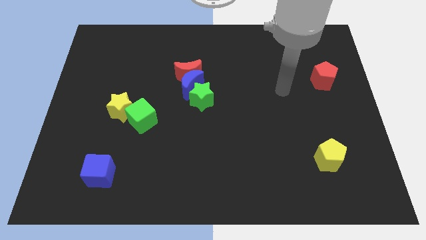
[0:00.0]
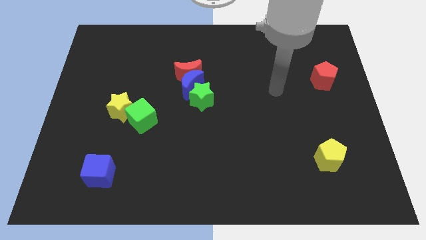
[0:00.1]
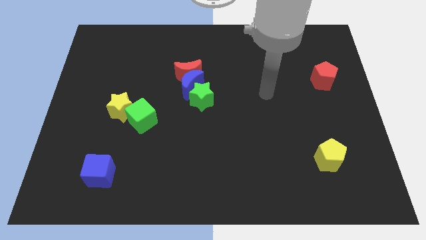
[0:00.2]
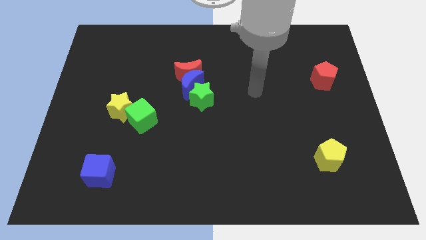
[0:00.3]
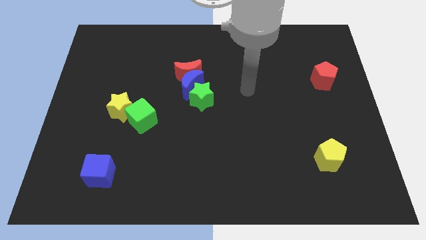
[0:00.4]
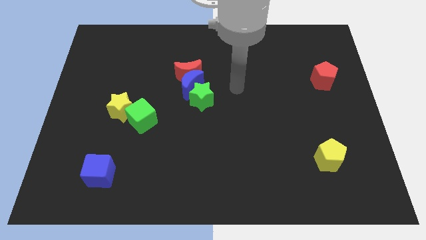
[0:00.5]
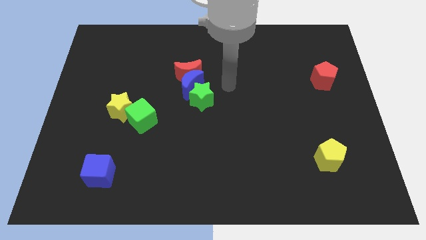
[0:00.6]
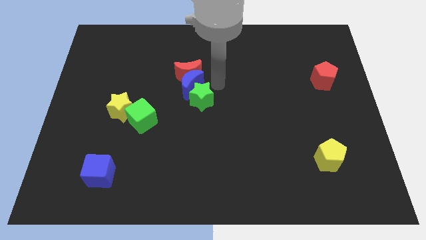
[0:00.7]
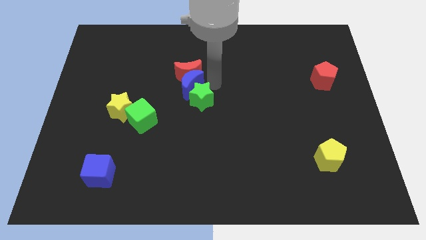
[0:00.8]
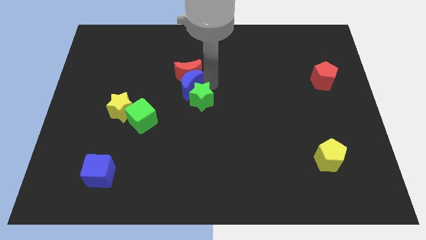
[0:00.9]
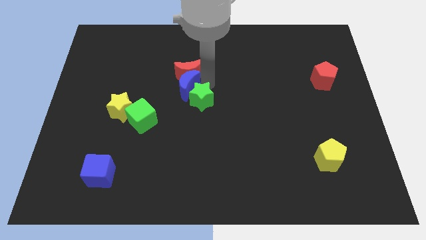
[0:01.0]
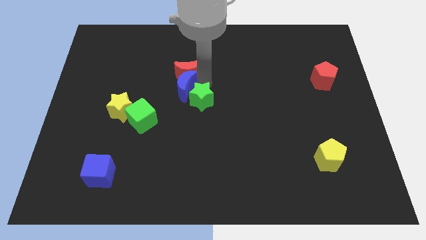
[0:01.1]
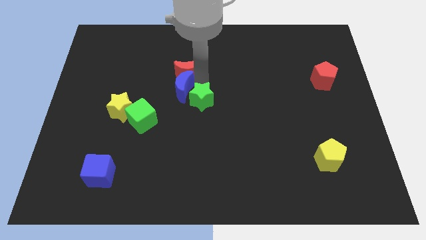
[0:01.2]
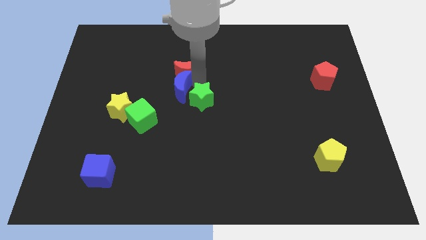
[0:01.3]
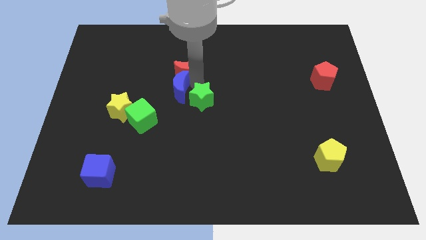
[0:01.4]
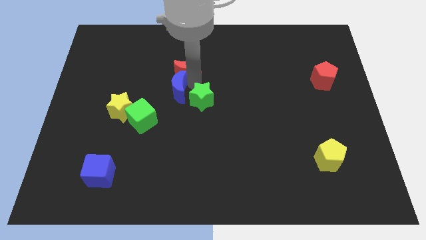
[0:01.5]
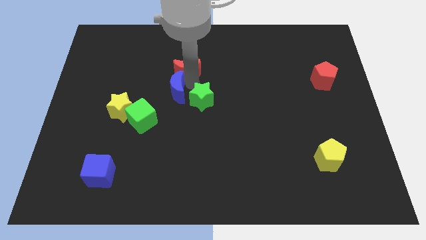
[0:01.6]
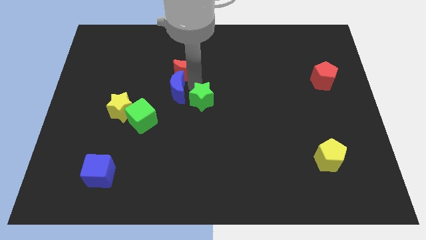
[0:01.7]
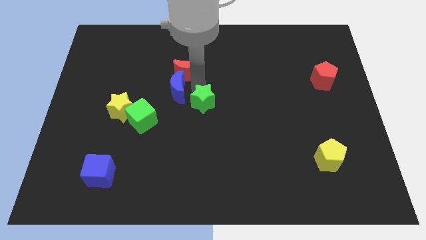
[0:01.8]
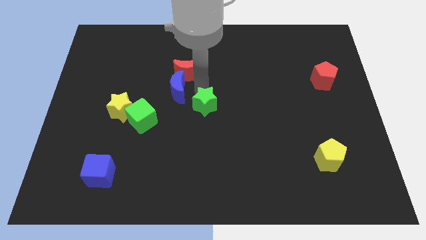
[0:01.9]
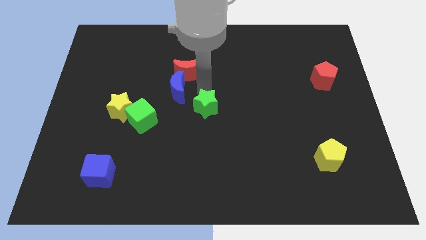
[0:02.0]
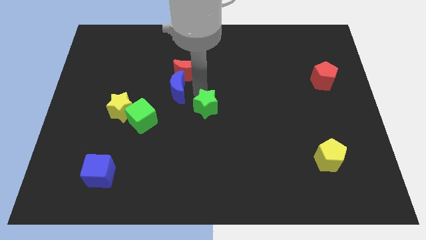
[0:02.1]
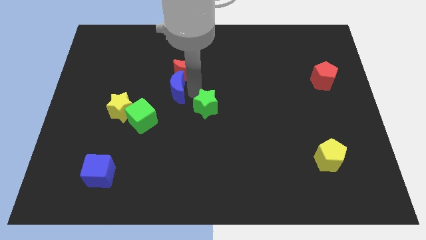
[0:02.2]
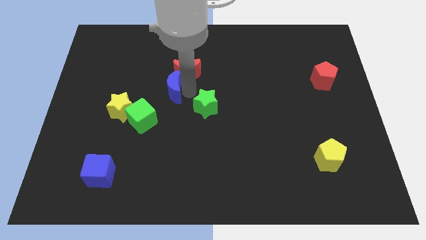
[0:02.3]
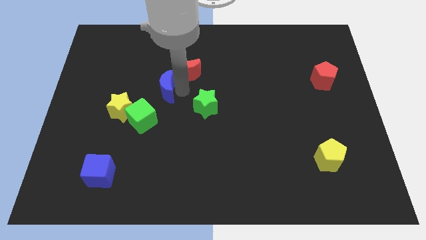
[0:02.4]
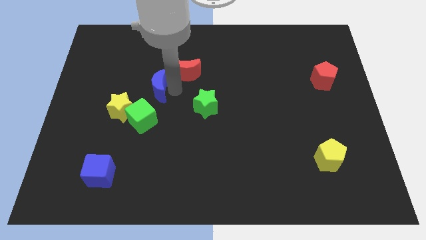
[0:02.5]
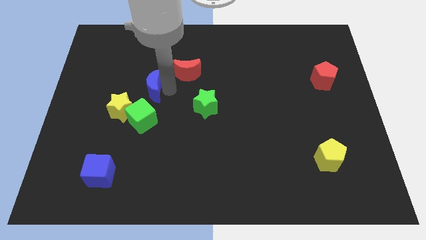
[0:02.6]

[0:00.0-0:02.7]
move the blue moon away from the red moon and green star

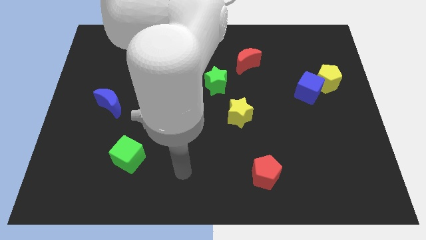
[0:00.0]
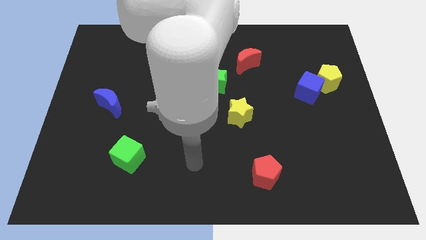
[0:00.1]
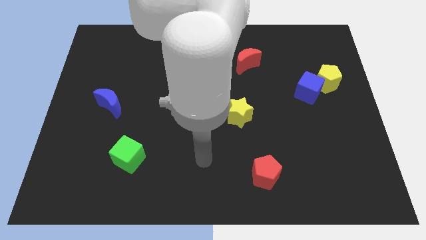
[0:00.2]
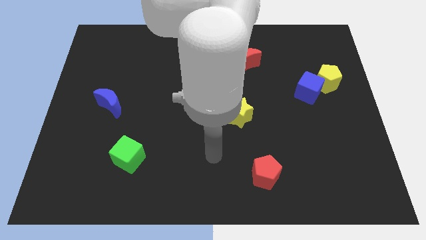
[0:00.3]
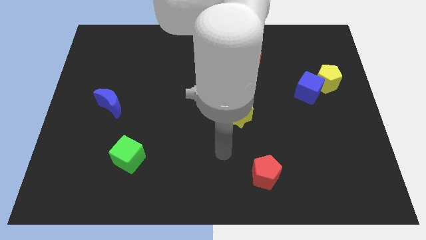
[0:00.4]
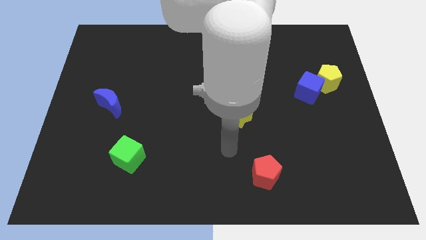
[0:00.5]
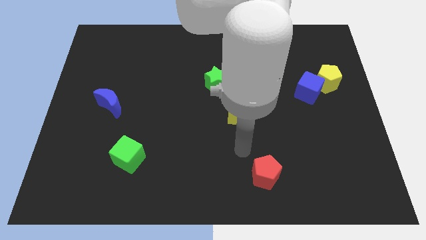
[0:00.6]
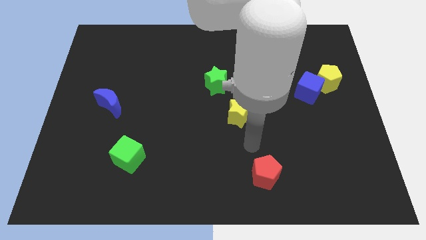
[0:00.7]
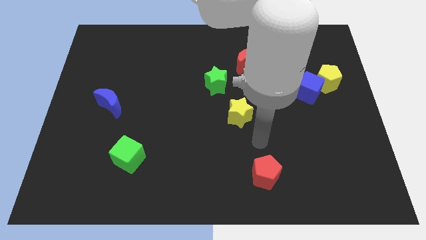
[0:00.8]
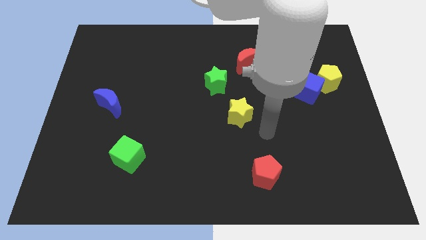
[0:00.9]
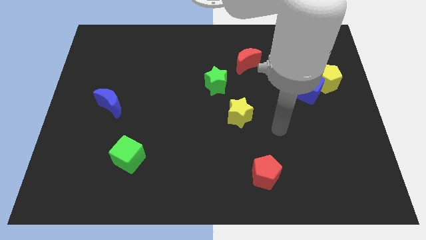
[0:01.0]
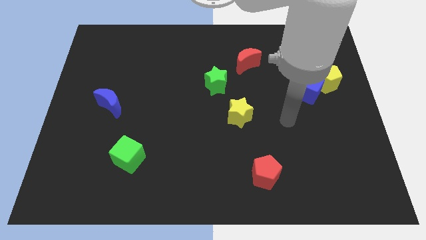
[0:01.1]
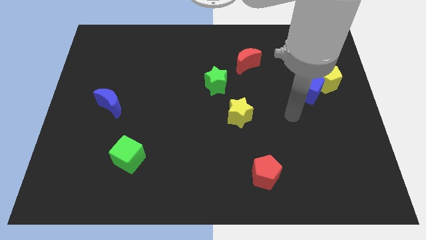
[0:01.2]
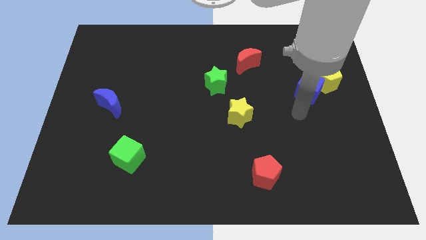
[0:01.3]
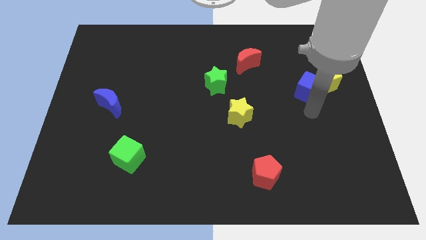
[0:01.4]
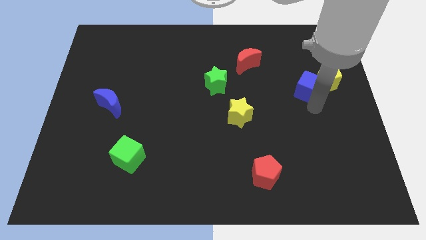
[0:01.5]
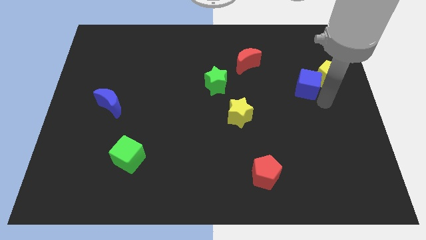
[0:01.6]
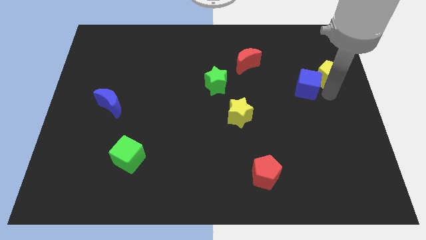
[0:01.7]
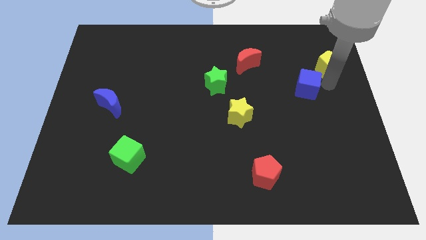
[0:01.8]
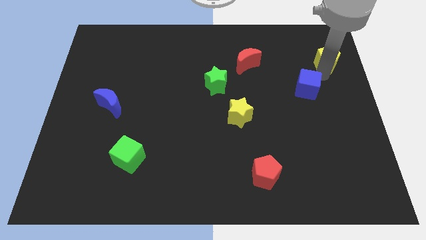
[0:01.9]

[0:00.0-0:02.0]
move the blue cube away from the yellow pentagon

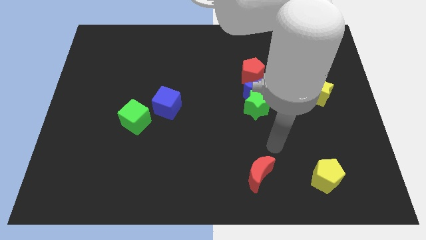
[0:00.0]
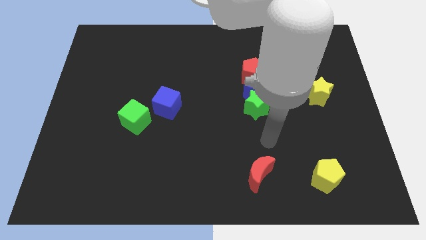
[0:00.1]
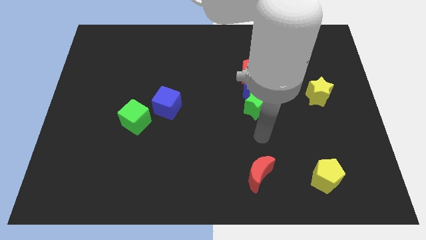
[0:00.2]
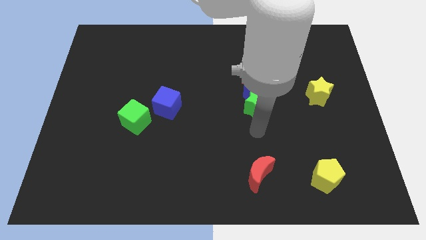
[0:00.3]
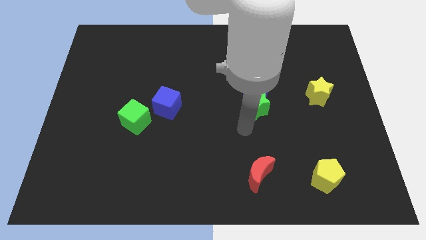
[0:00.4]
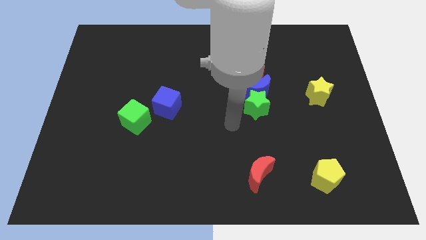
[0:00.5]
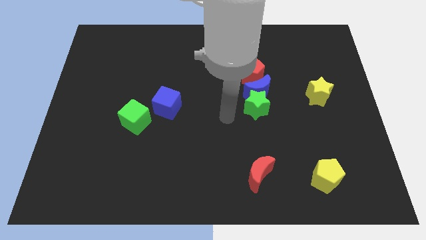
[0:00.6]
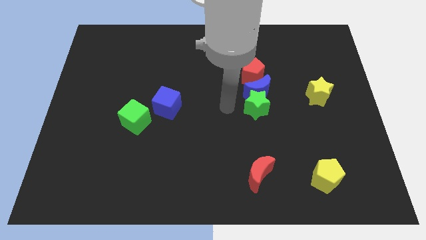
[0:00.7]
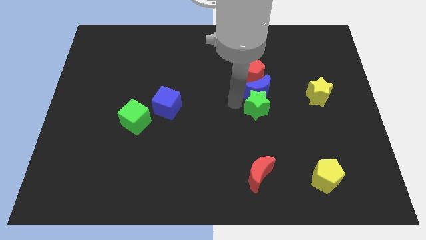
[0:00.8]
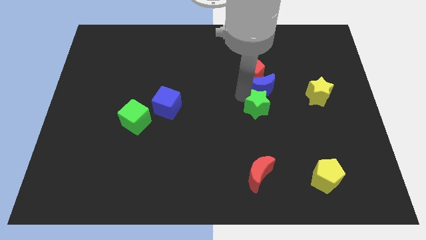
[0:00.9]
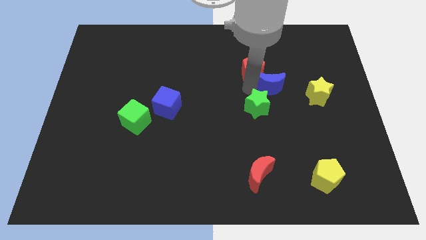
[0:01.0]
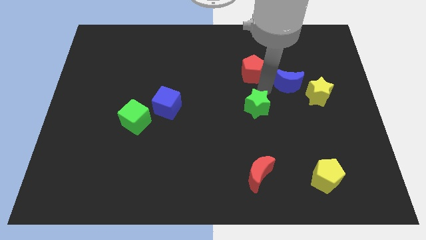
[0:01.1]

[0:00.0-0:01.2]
move the green star away from the blue moon

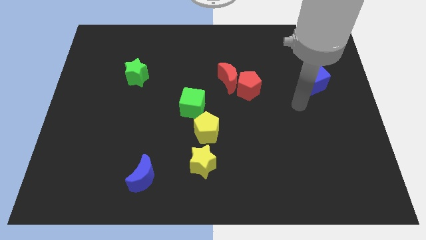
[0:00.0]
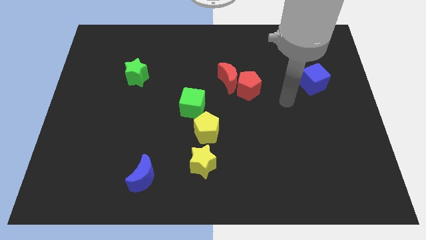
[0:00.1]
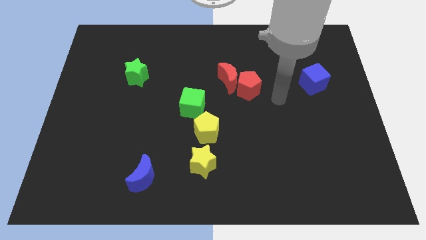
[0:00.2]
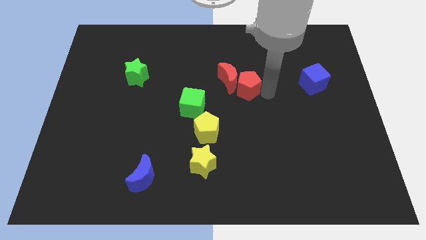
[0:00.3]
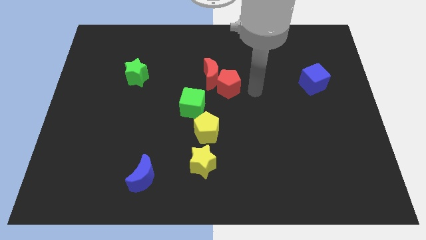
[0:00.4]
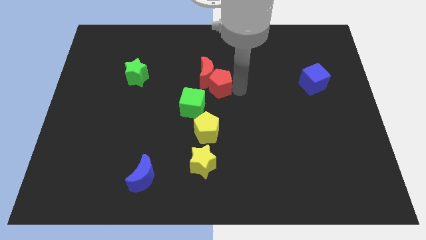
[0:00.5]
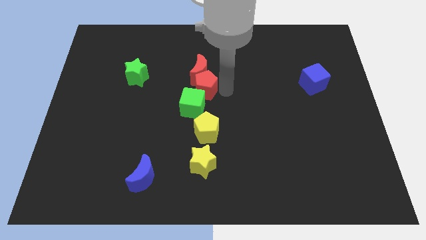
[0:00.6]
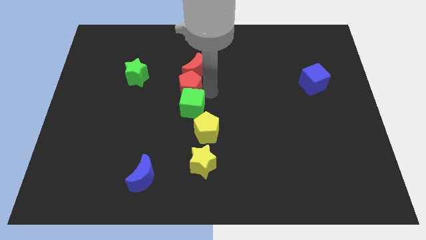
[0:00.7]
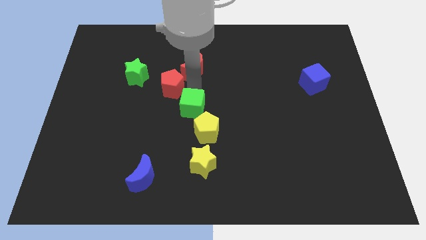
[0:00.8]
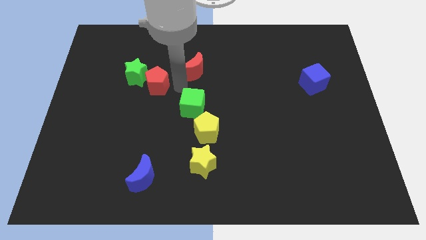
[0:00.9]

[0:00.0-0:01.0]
move the red moon away from the red pentagon

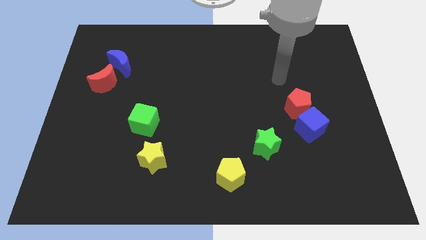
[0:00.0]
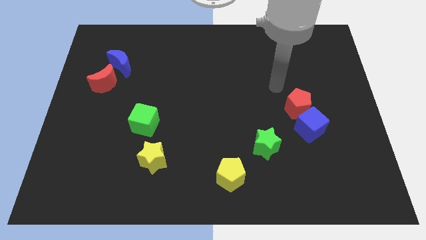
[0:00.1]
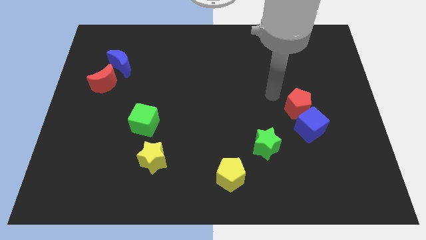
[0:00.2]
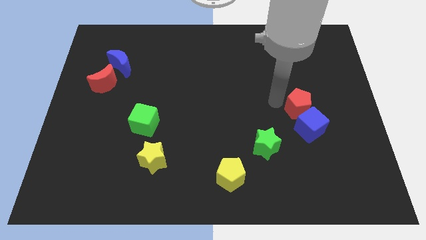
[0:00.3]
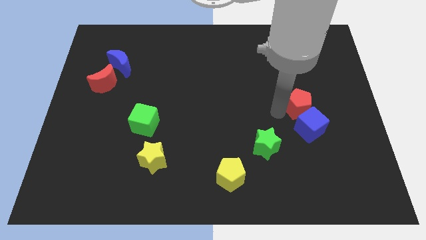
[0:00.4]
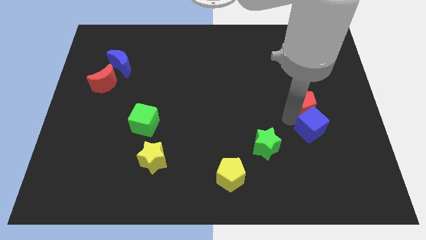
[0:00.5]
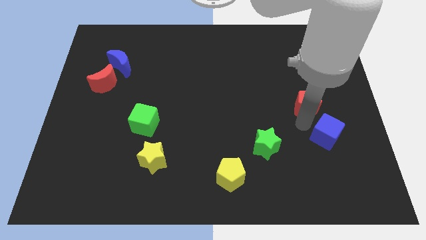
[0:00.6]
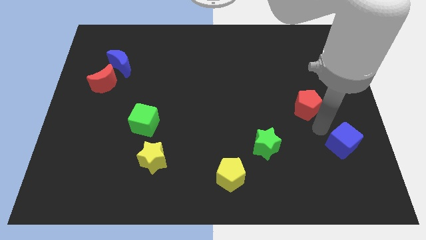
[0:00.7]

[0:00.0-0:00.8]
move the red pentagon away from the blue cube

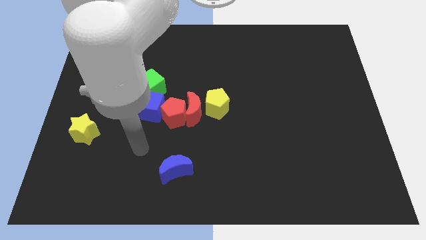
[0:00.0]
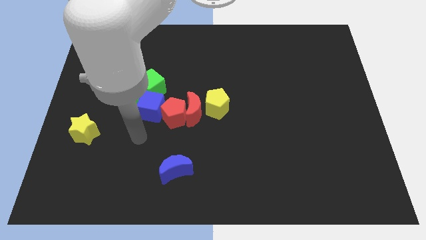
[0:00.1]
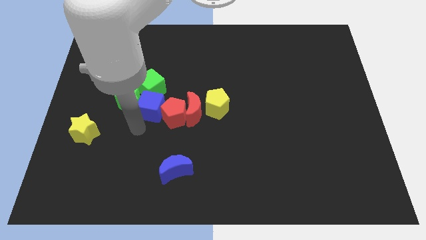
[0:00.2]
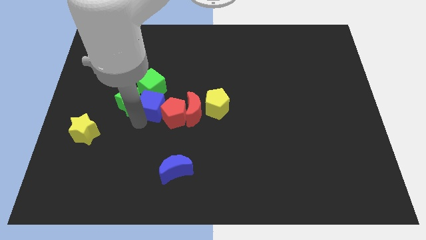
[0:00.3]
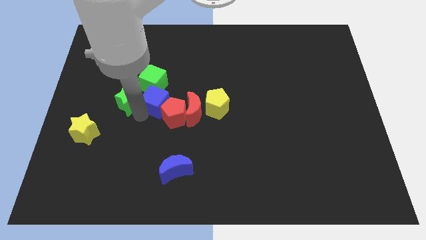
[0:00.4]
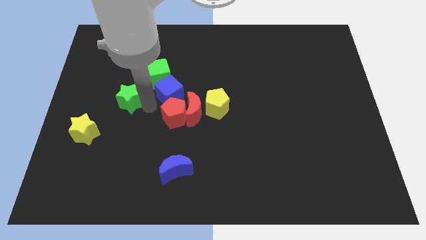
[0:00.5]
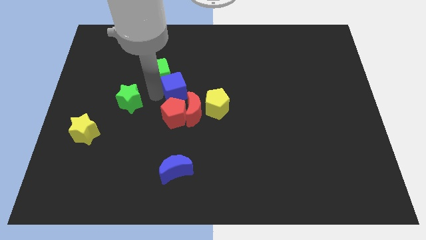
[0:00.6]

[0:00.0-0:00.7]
separate the green star from the blue cube and green cube

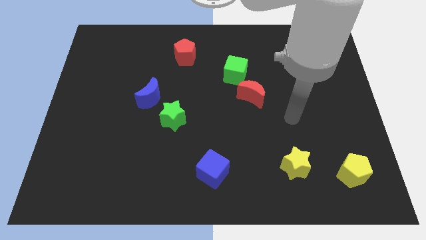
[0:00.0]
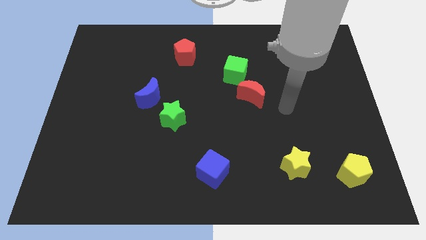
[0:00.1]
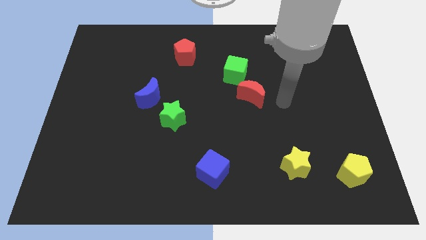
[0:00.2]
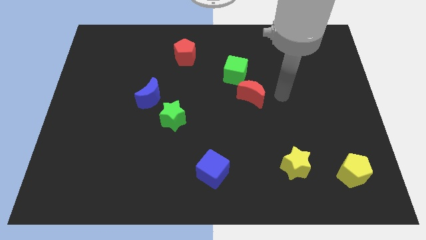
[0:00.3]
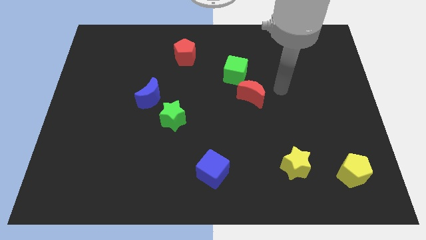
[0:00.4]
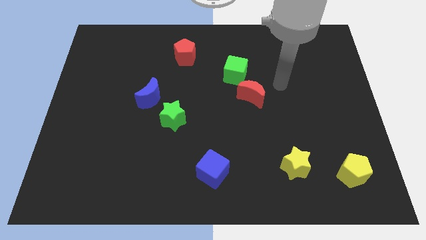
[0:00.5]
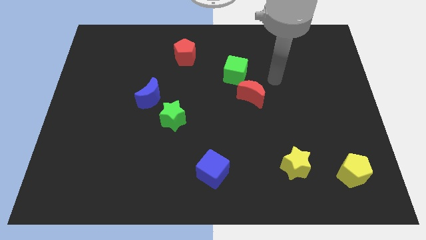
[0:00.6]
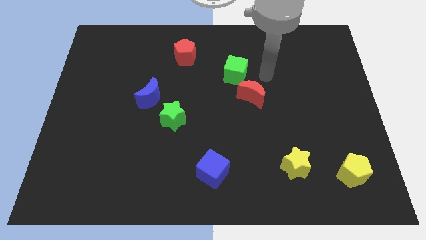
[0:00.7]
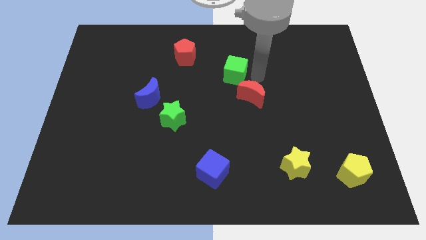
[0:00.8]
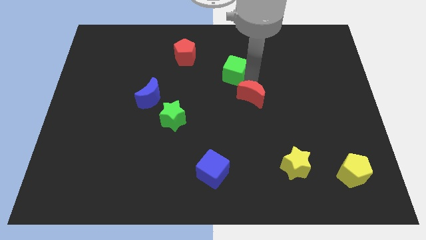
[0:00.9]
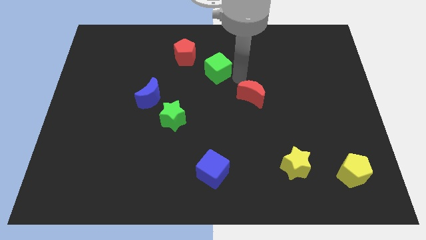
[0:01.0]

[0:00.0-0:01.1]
move the red moon away from the green cube
